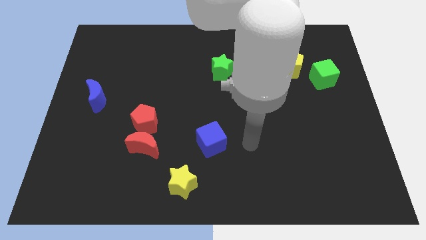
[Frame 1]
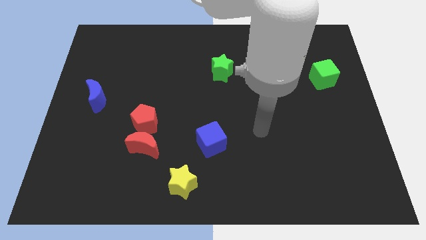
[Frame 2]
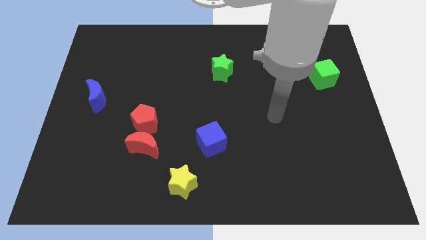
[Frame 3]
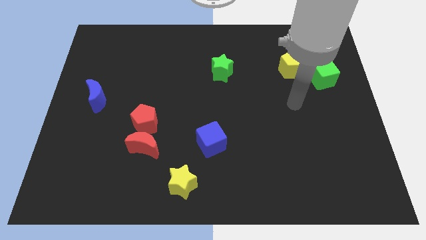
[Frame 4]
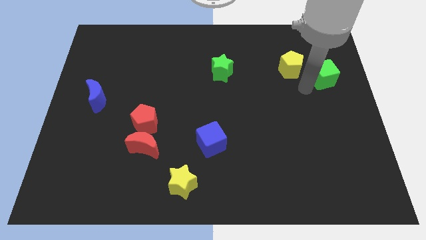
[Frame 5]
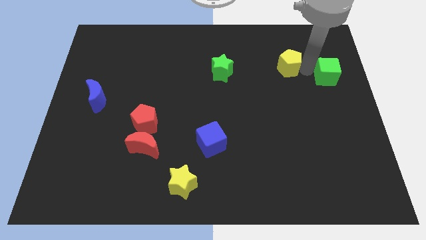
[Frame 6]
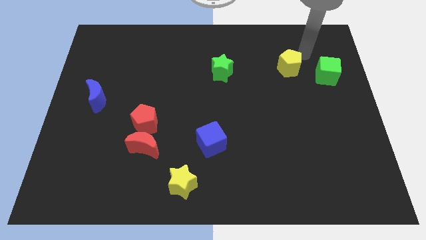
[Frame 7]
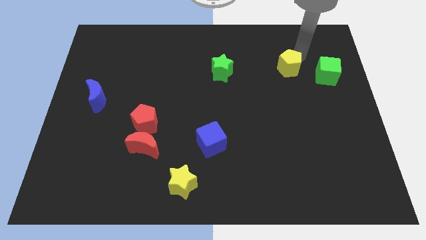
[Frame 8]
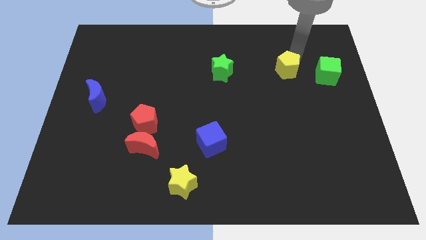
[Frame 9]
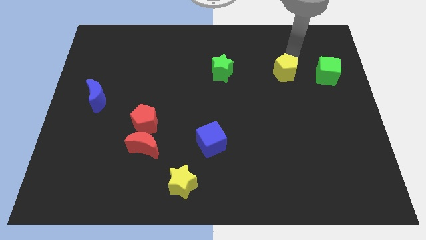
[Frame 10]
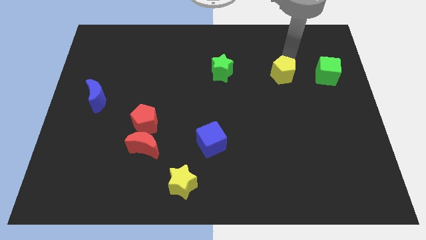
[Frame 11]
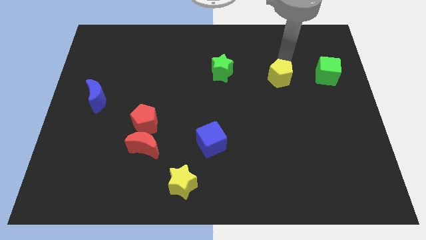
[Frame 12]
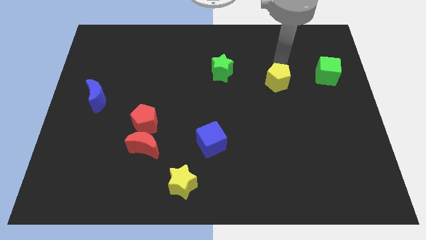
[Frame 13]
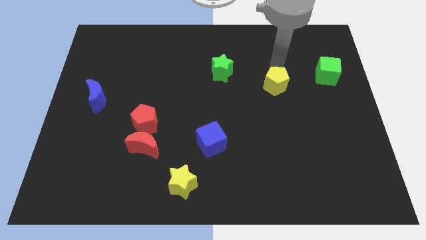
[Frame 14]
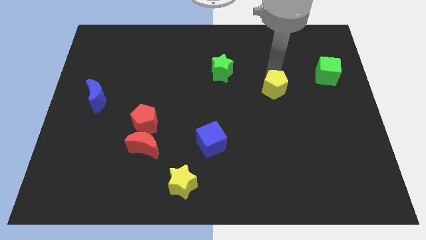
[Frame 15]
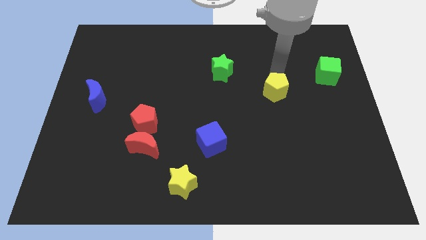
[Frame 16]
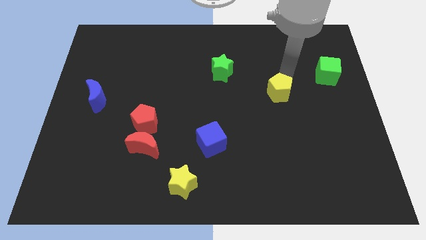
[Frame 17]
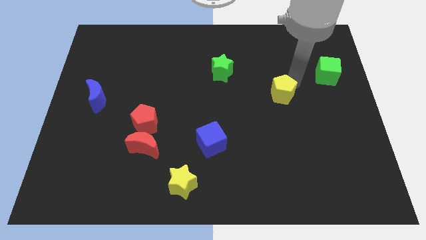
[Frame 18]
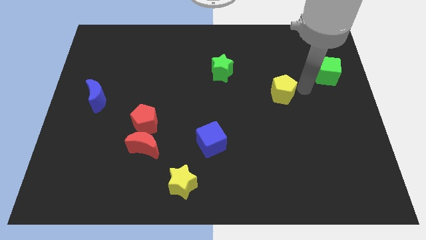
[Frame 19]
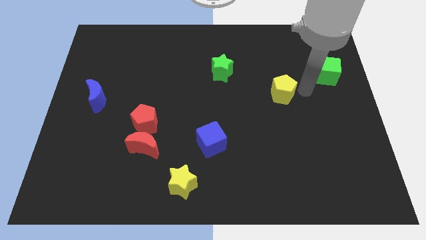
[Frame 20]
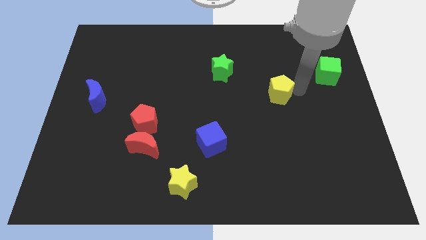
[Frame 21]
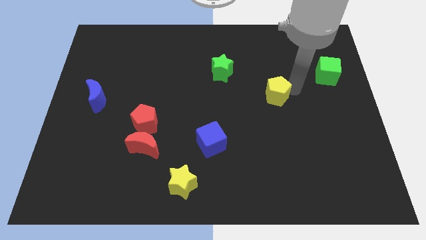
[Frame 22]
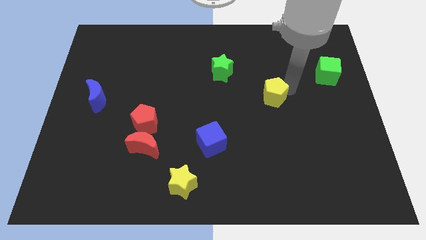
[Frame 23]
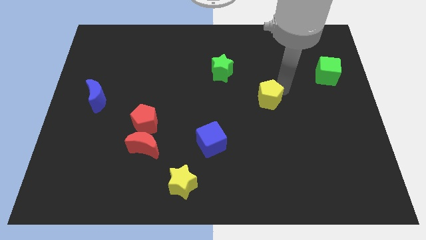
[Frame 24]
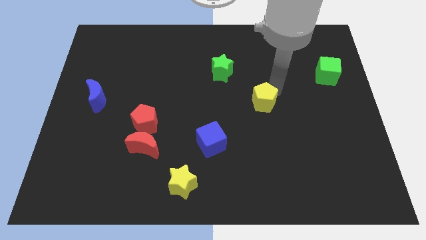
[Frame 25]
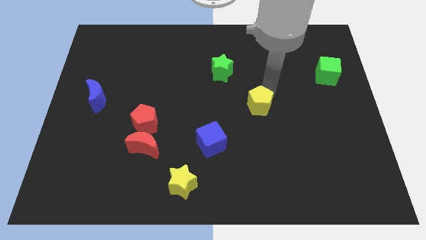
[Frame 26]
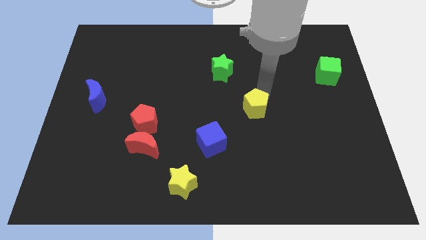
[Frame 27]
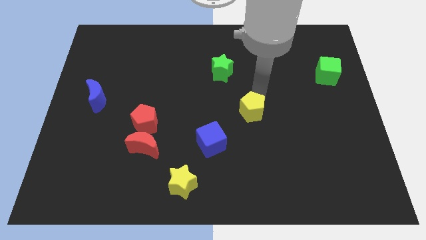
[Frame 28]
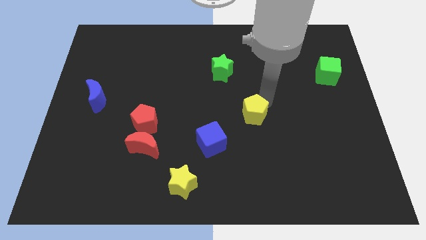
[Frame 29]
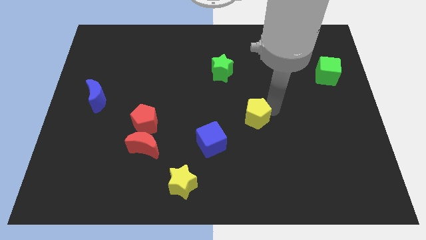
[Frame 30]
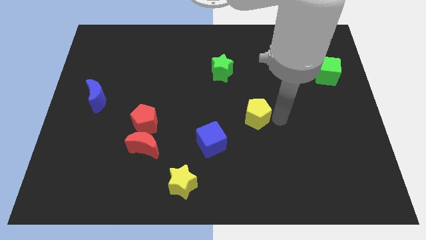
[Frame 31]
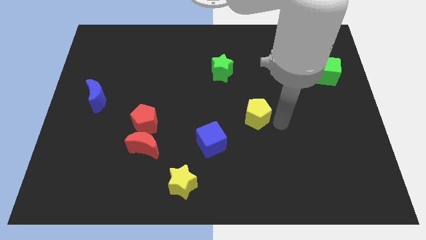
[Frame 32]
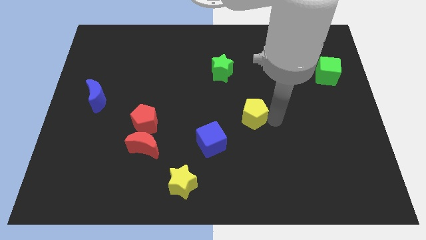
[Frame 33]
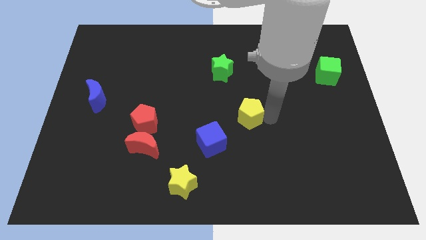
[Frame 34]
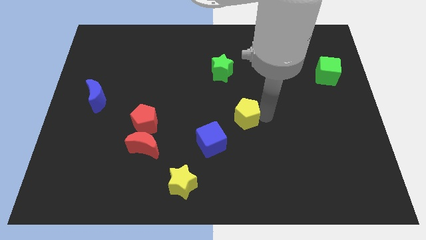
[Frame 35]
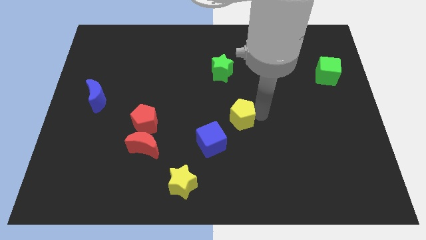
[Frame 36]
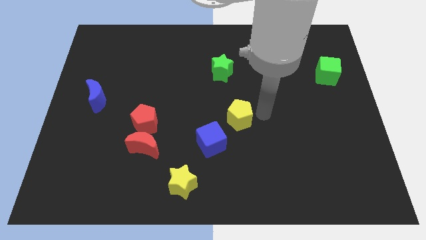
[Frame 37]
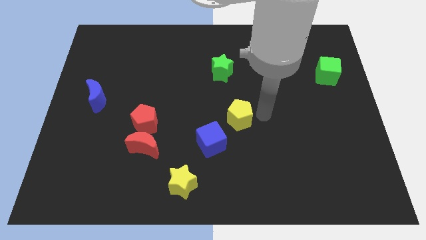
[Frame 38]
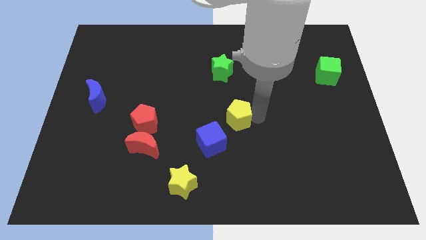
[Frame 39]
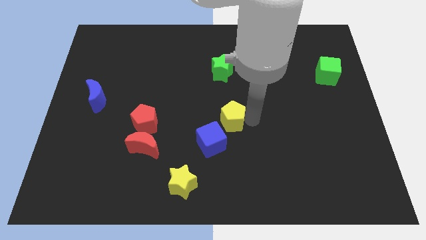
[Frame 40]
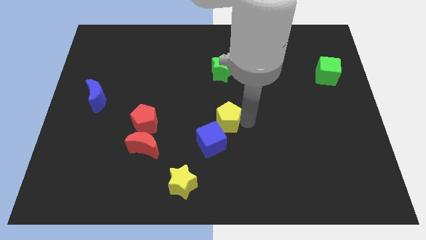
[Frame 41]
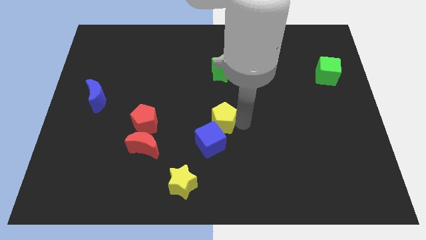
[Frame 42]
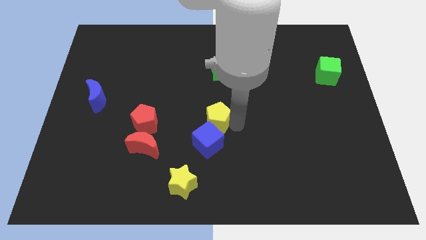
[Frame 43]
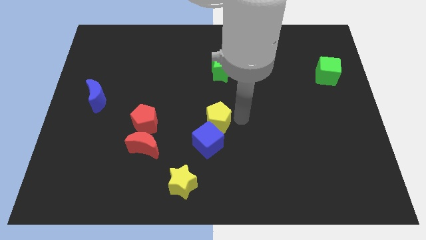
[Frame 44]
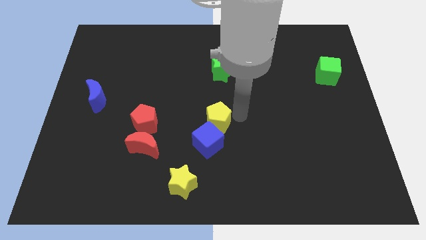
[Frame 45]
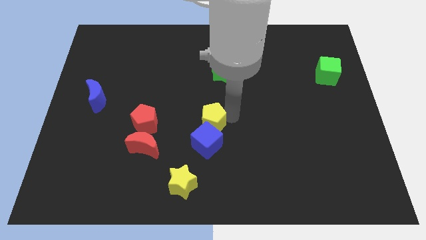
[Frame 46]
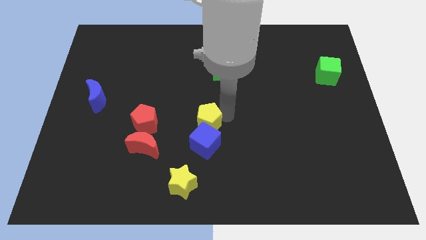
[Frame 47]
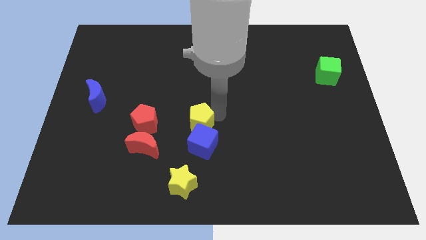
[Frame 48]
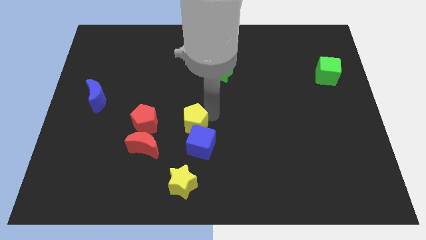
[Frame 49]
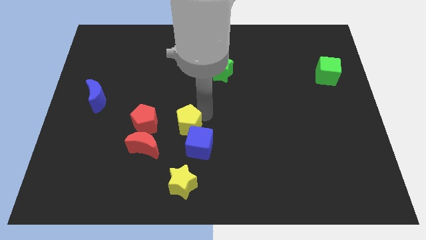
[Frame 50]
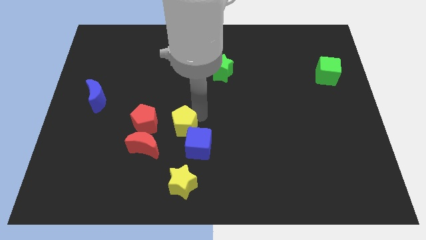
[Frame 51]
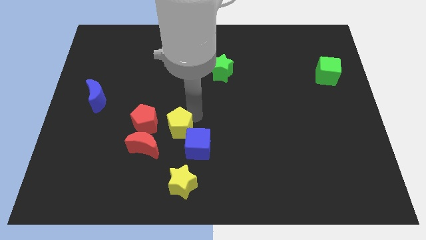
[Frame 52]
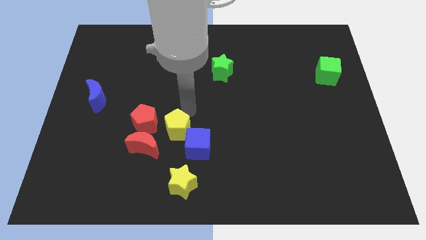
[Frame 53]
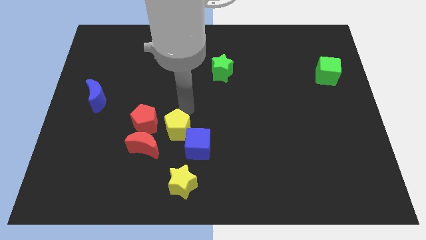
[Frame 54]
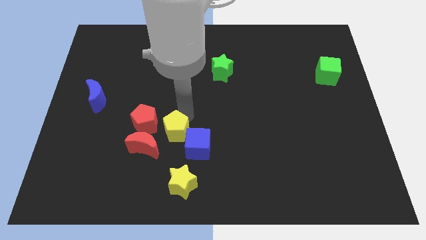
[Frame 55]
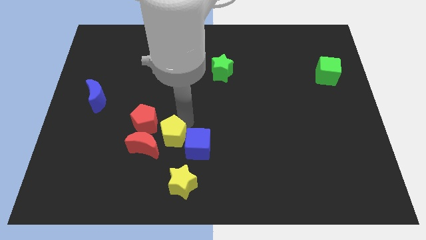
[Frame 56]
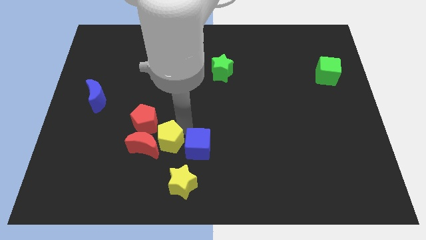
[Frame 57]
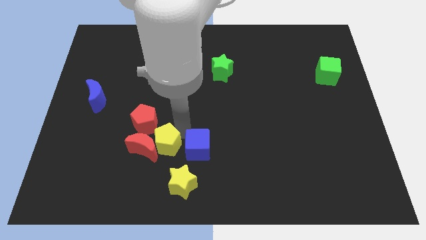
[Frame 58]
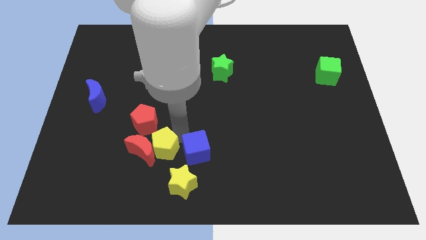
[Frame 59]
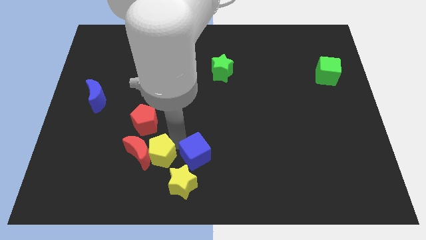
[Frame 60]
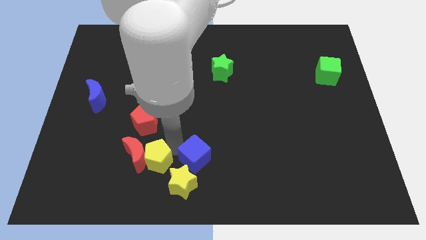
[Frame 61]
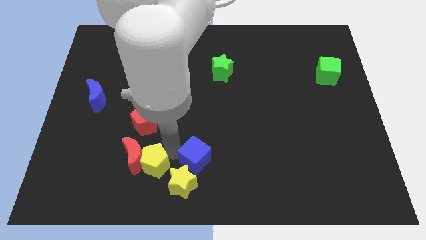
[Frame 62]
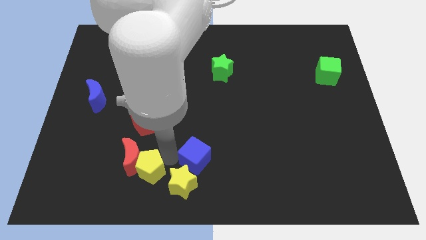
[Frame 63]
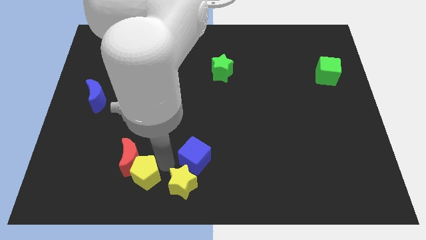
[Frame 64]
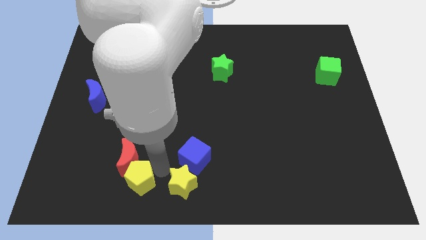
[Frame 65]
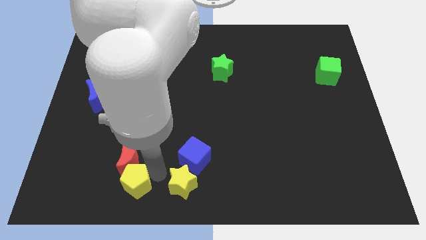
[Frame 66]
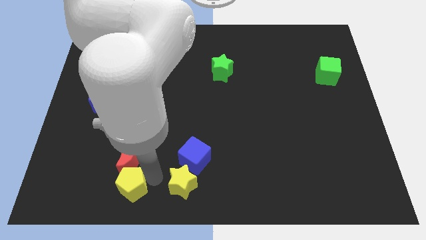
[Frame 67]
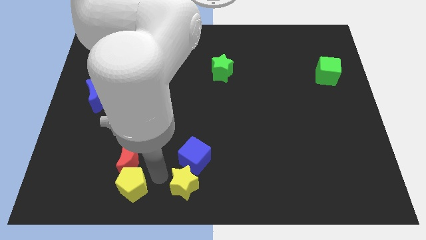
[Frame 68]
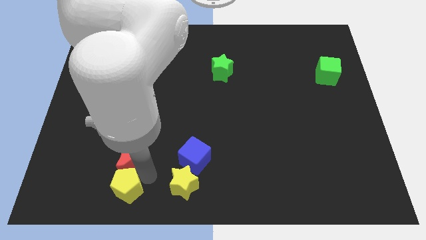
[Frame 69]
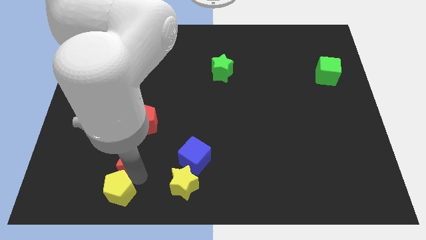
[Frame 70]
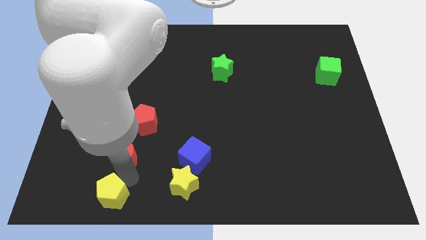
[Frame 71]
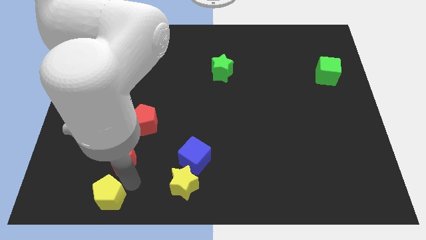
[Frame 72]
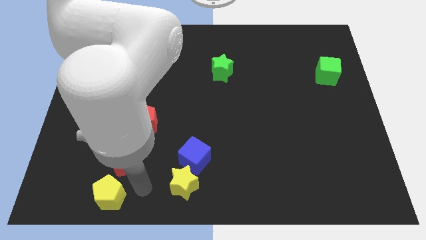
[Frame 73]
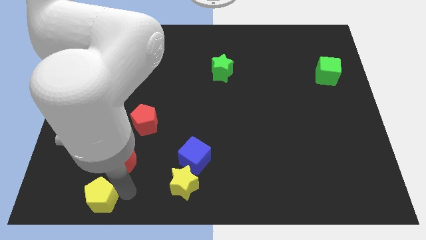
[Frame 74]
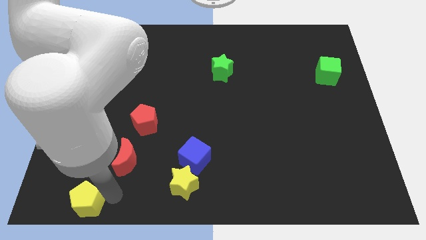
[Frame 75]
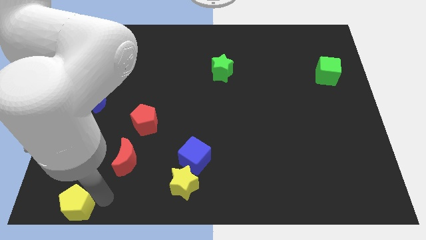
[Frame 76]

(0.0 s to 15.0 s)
slide the yellow pentagon to the bottom left
